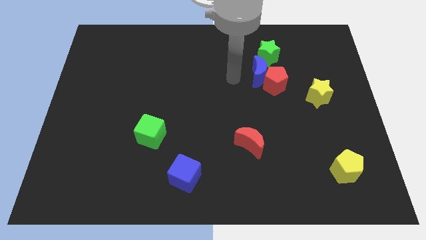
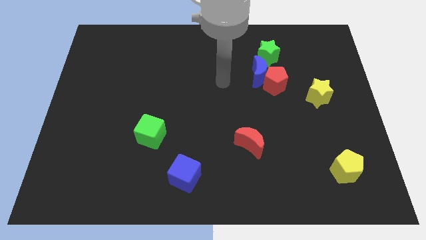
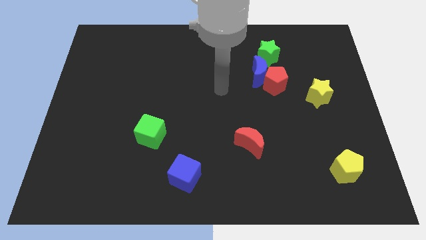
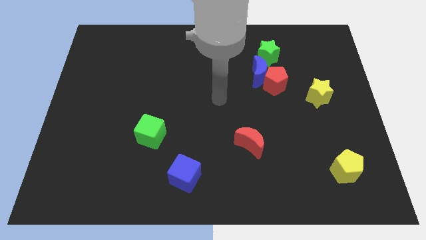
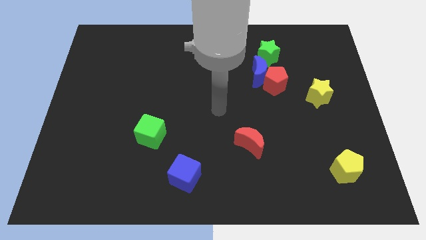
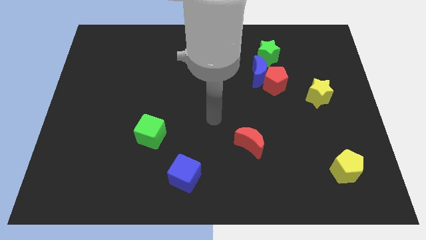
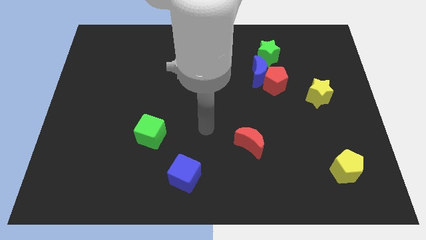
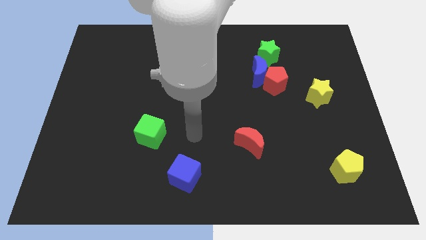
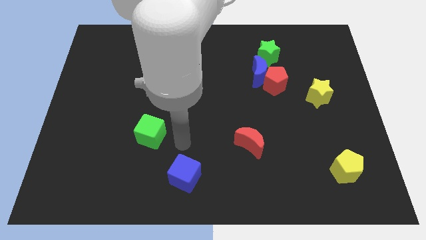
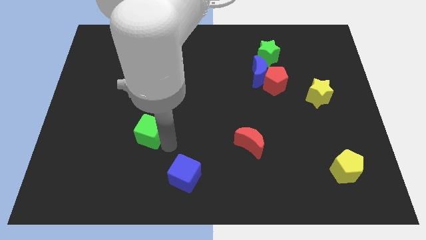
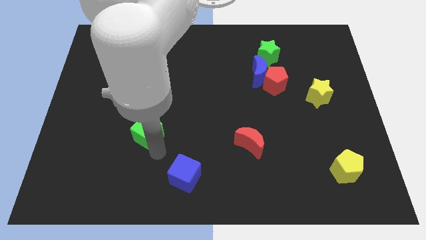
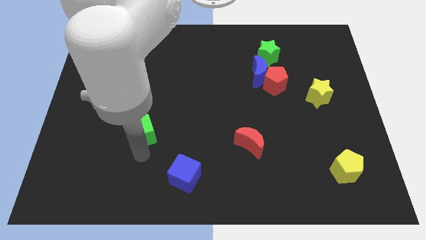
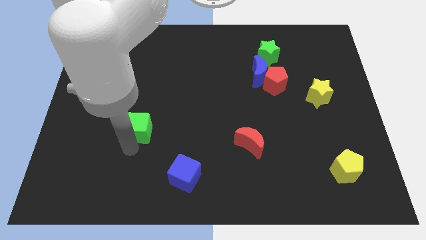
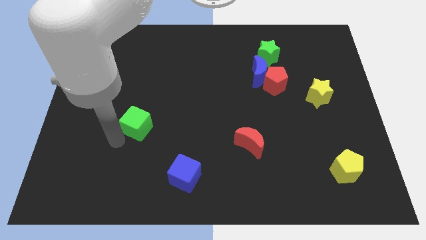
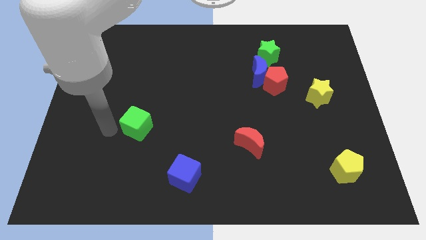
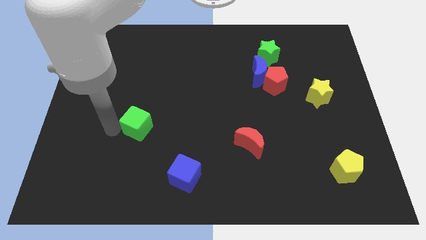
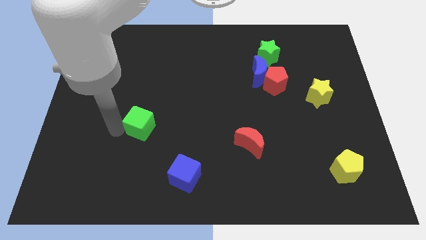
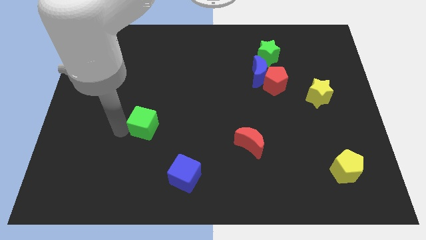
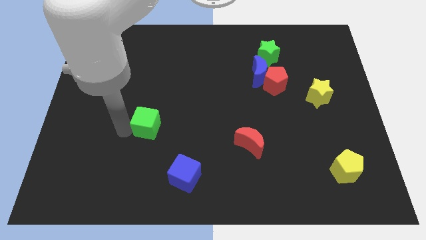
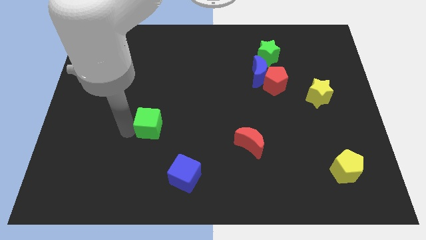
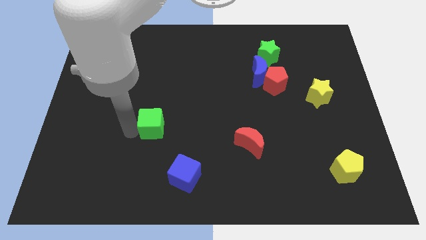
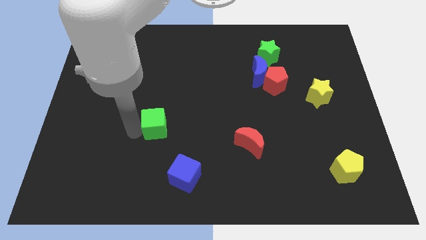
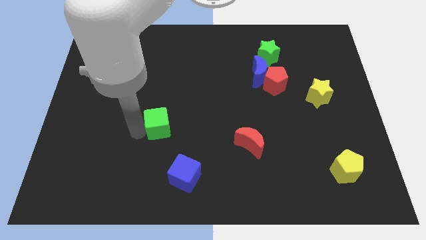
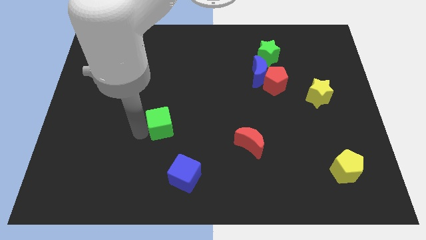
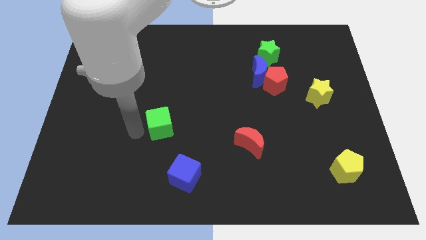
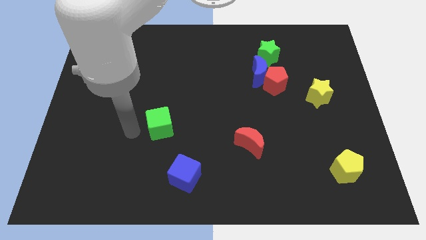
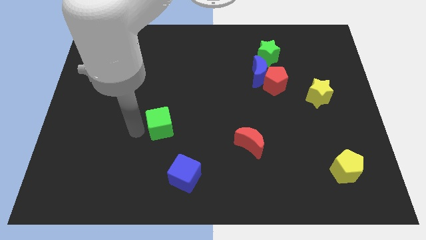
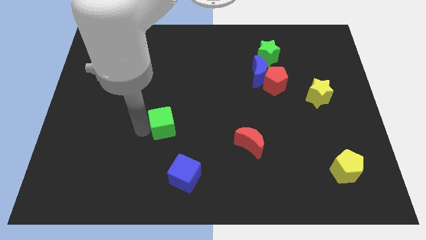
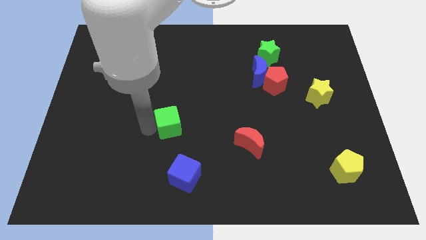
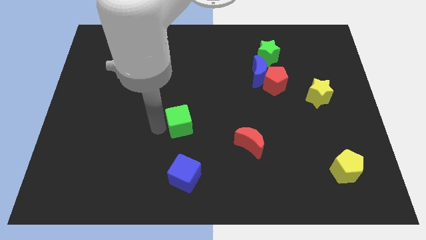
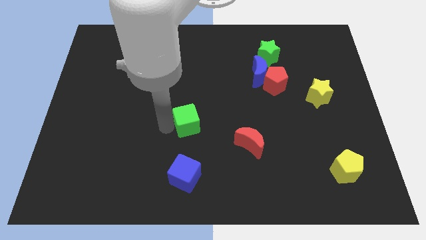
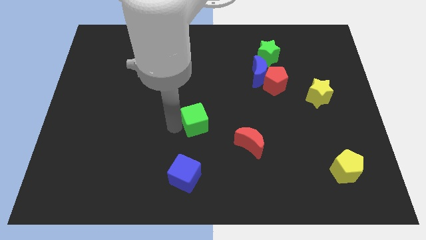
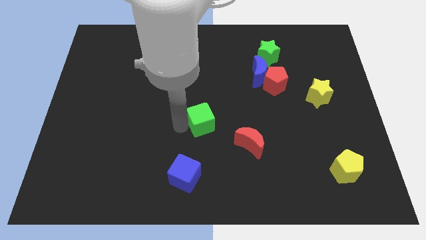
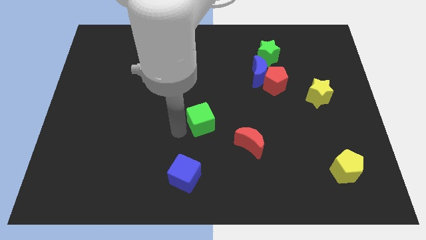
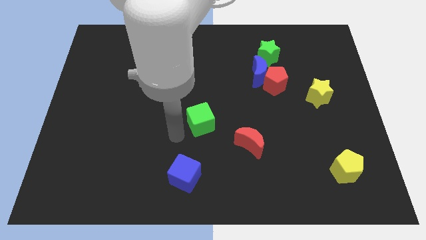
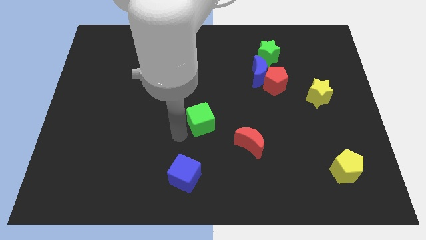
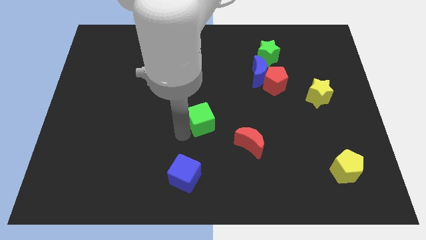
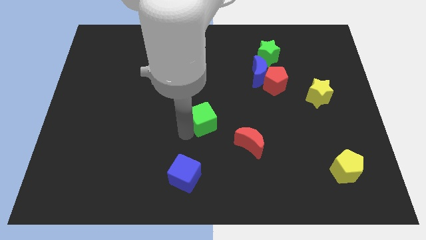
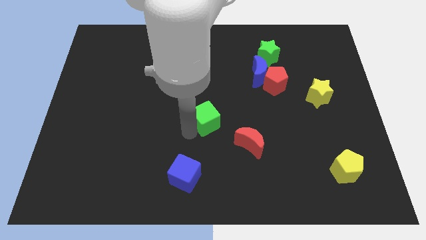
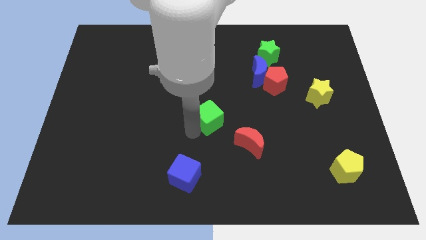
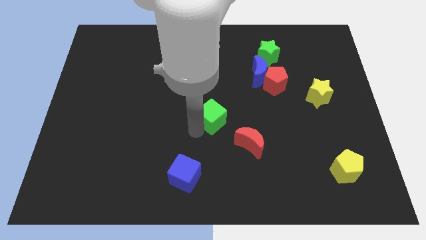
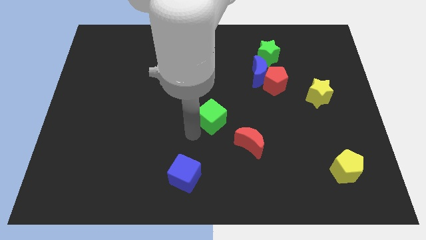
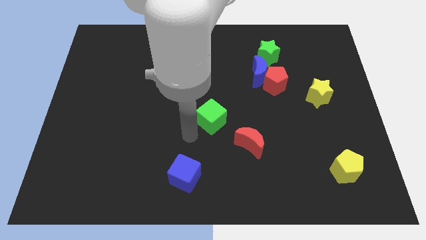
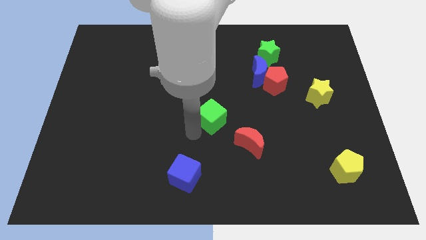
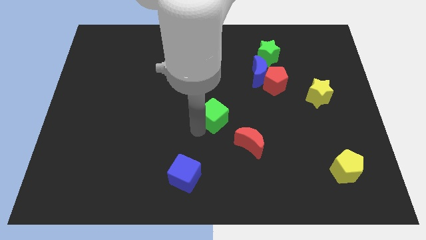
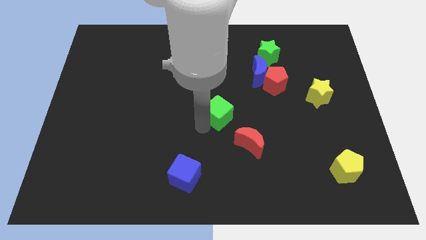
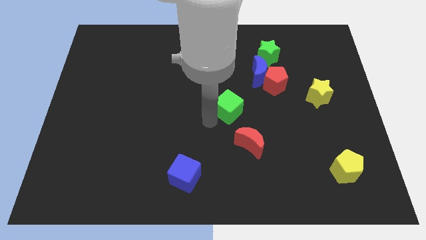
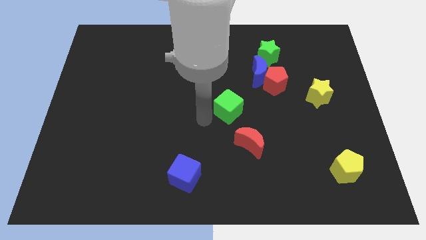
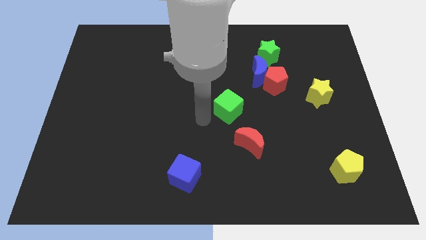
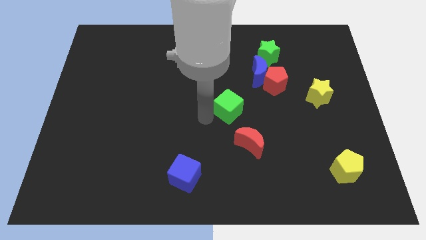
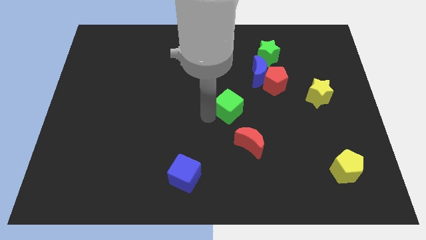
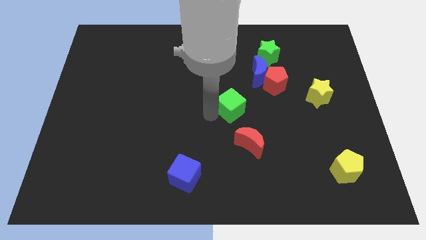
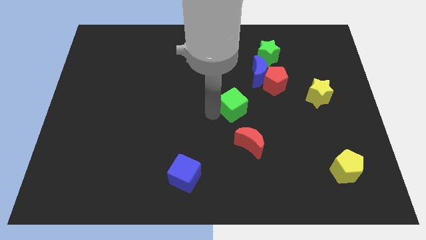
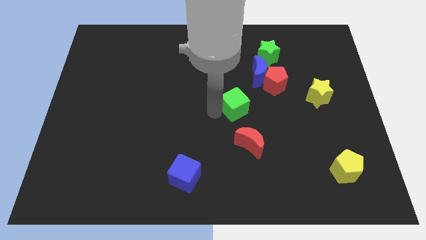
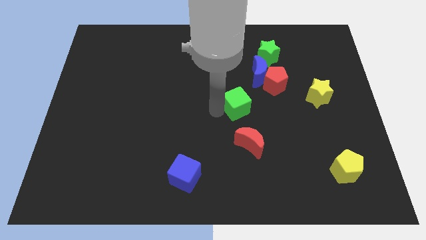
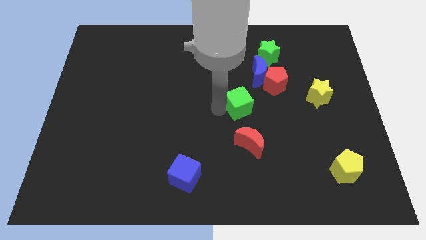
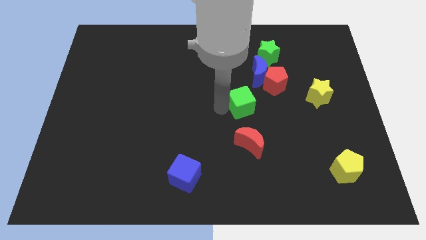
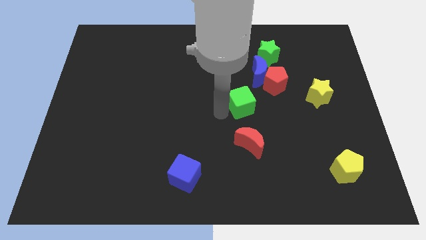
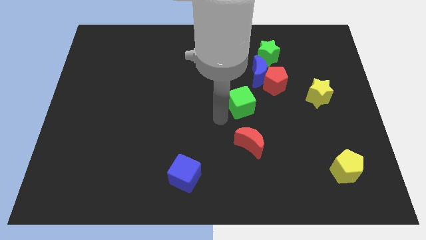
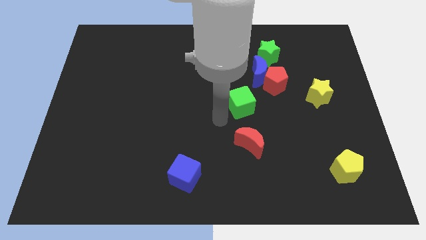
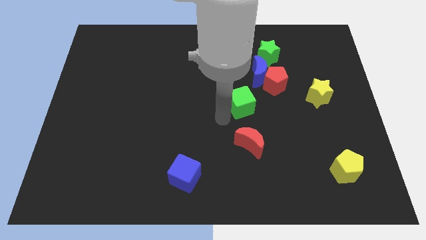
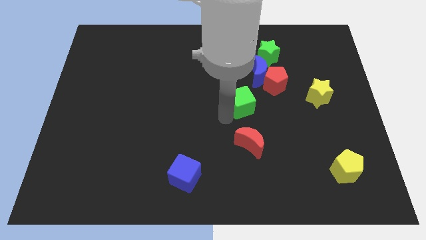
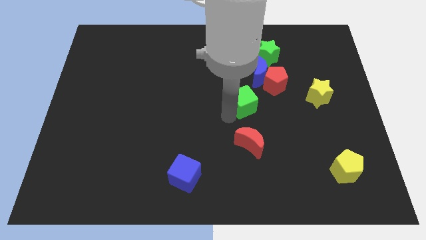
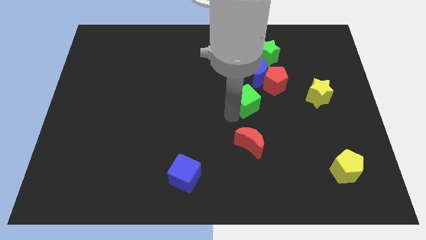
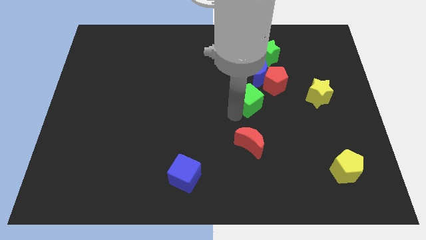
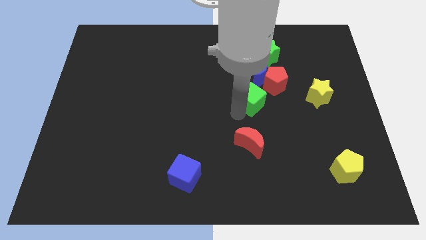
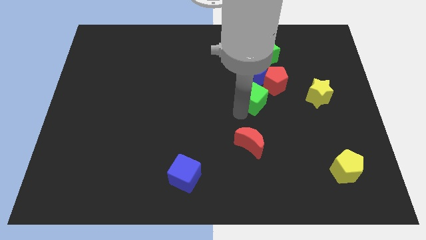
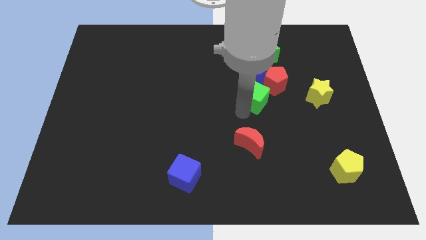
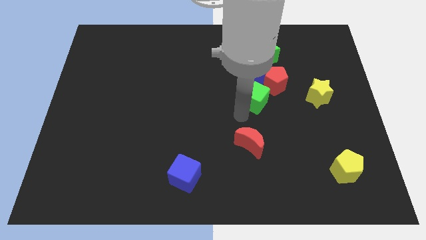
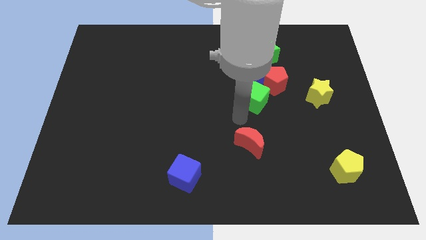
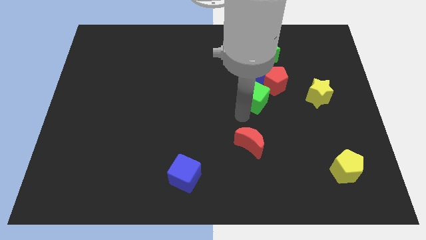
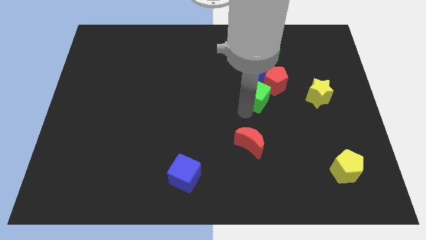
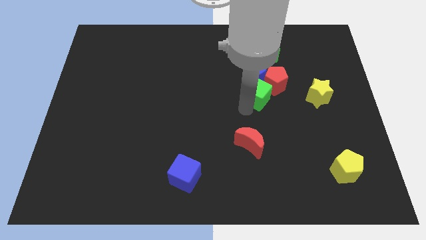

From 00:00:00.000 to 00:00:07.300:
push the green cube to the red pentagon
